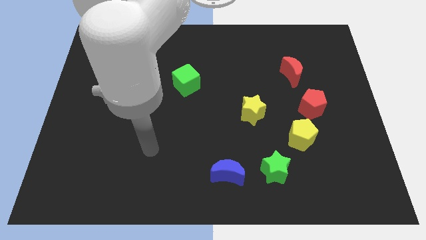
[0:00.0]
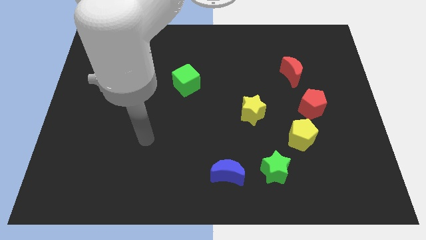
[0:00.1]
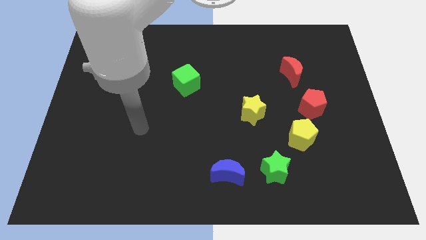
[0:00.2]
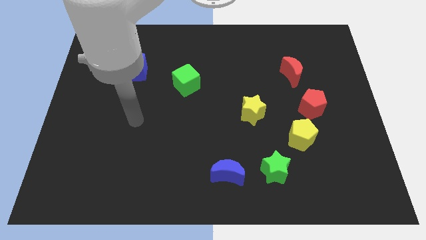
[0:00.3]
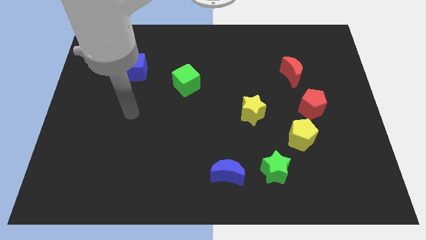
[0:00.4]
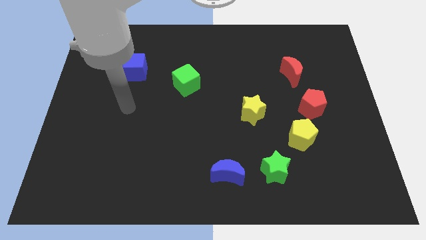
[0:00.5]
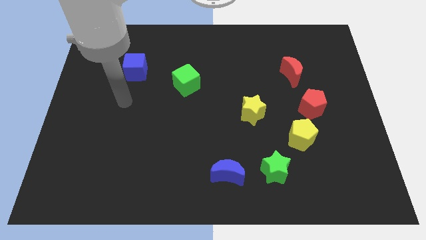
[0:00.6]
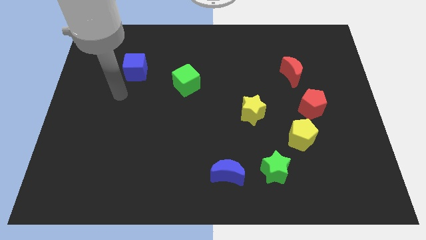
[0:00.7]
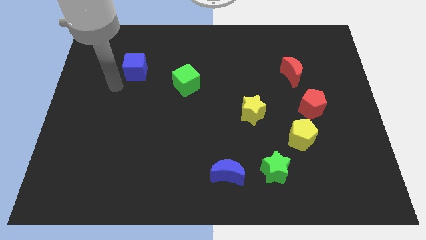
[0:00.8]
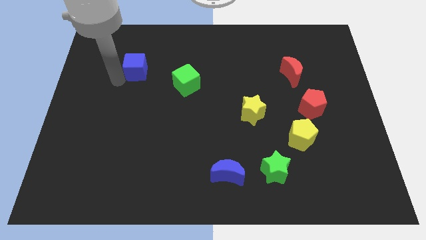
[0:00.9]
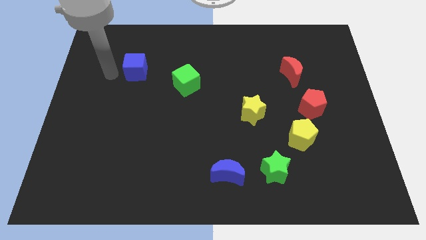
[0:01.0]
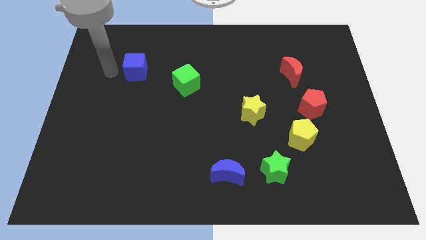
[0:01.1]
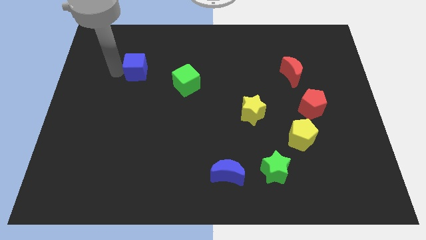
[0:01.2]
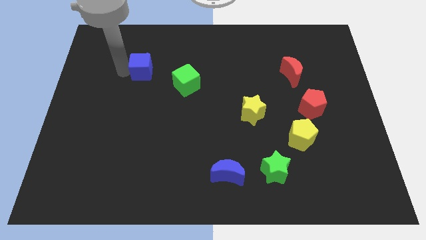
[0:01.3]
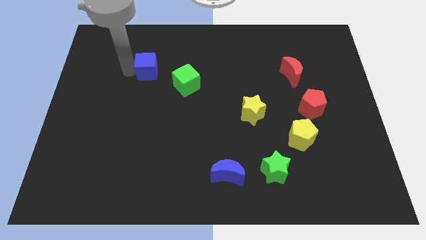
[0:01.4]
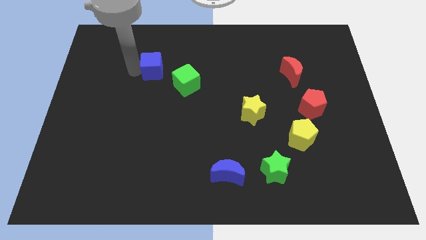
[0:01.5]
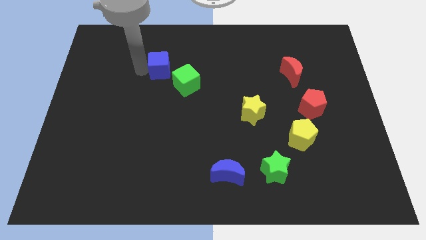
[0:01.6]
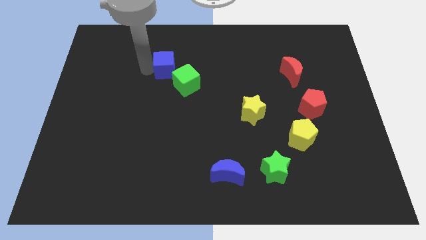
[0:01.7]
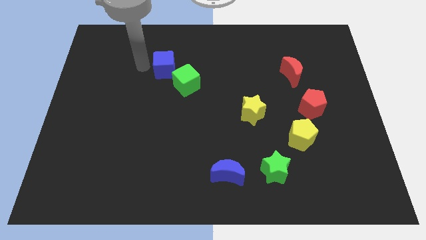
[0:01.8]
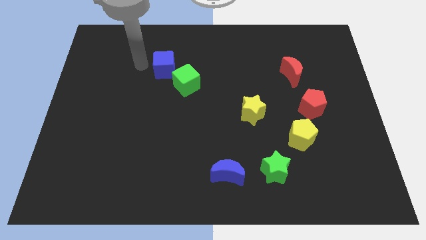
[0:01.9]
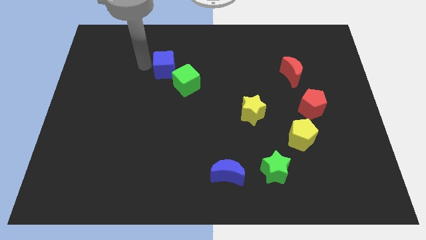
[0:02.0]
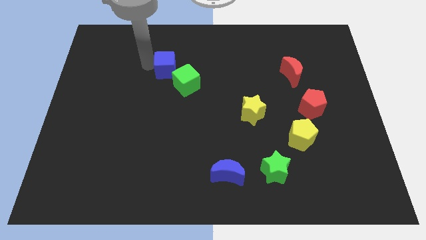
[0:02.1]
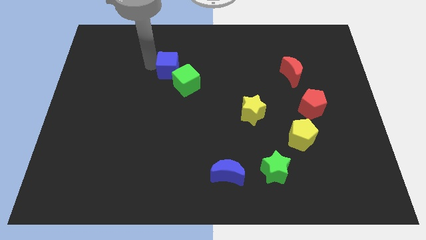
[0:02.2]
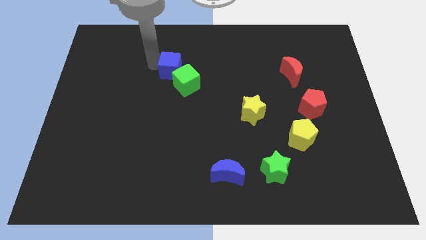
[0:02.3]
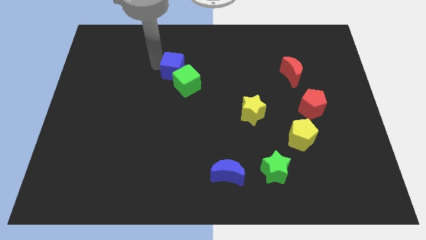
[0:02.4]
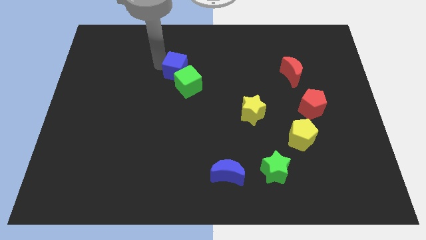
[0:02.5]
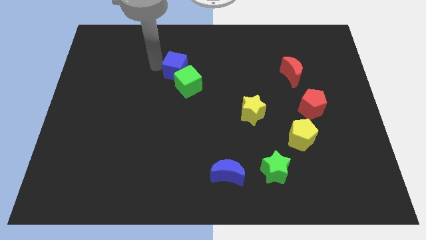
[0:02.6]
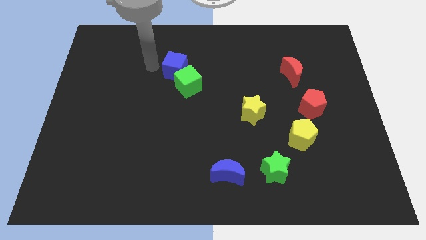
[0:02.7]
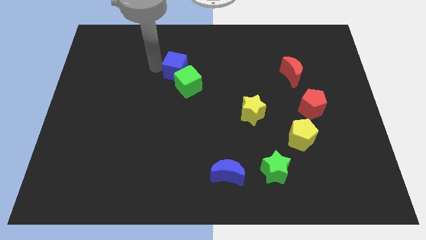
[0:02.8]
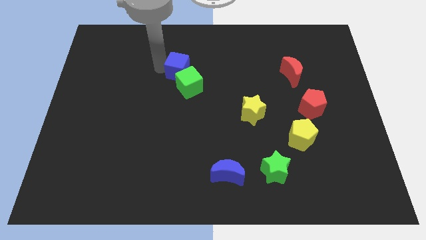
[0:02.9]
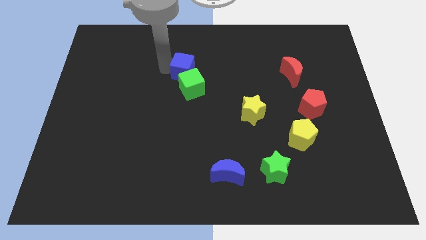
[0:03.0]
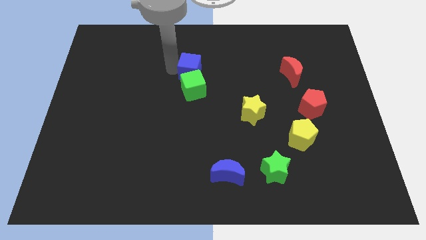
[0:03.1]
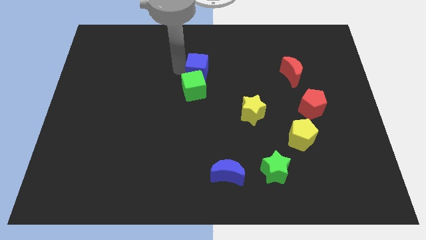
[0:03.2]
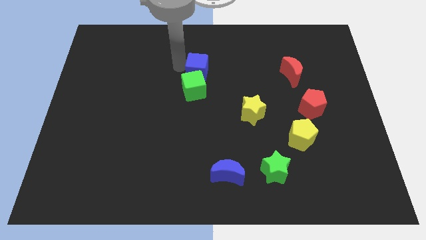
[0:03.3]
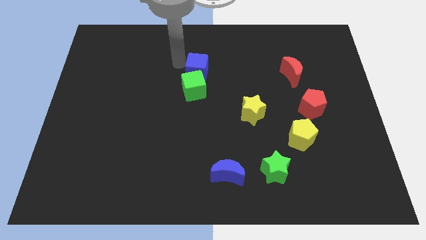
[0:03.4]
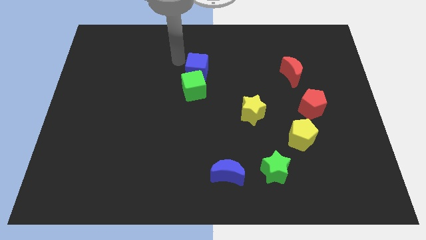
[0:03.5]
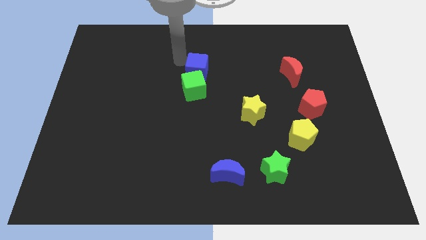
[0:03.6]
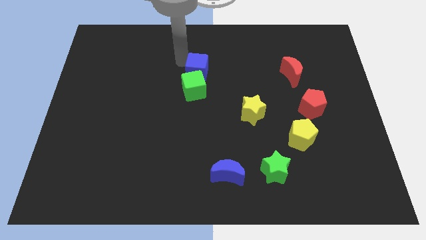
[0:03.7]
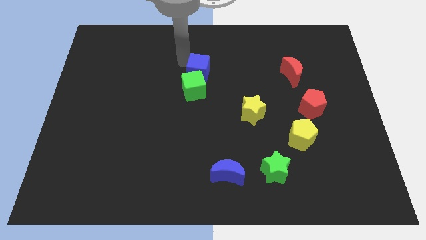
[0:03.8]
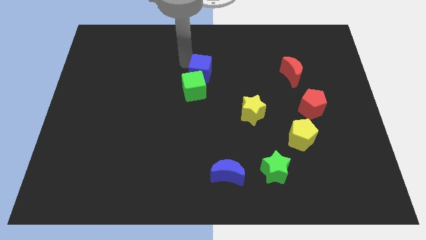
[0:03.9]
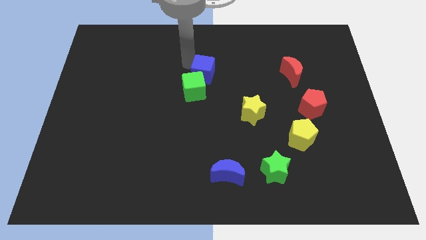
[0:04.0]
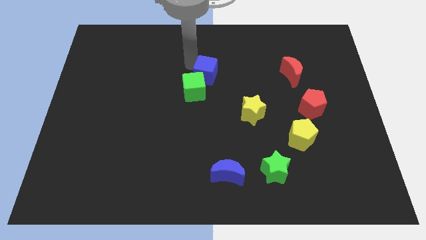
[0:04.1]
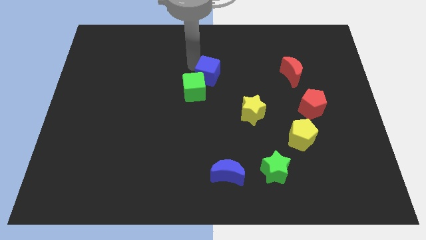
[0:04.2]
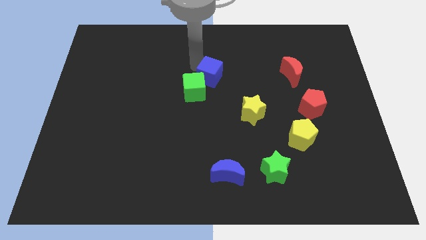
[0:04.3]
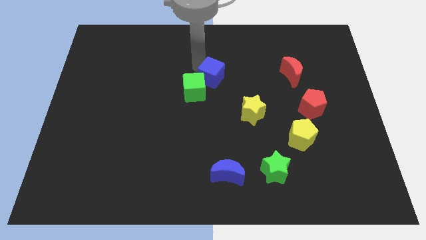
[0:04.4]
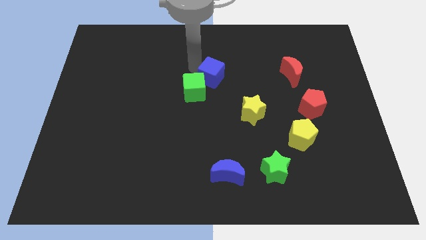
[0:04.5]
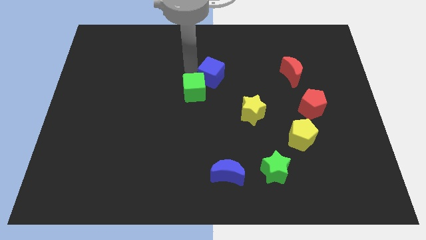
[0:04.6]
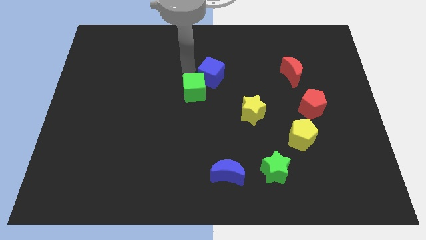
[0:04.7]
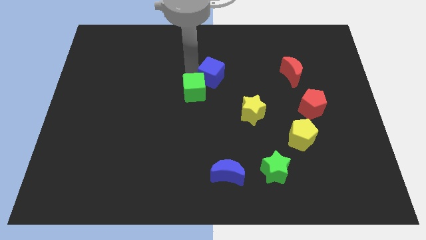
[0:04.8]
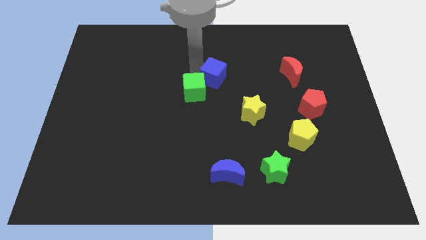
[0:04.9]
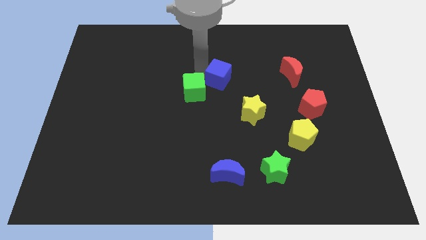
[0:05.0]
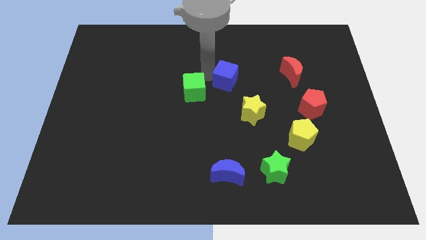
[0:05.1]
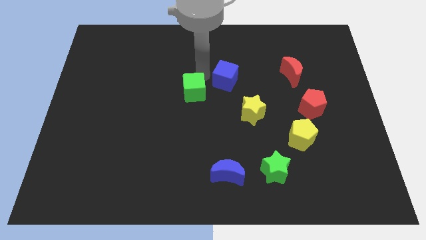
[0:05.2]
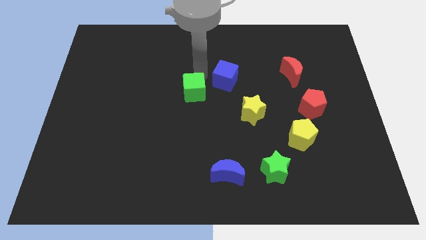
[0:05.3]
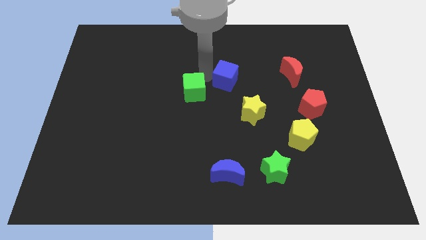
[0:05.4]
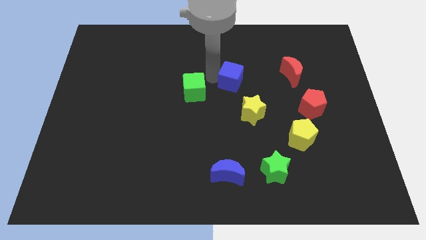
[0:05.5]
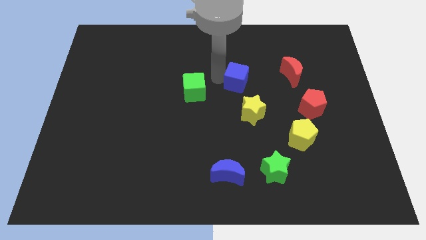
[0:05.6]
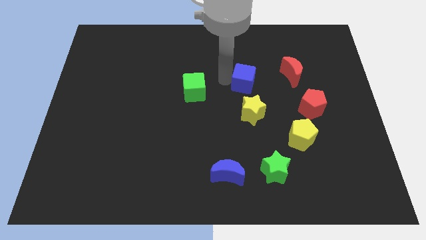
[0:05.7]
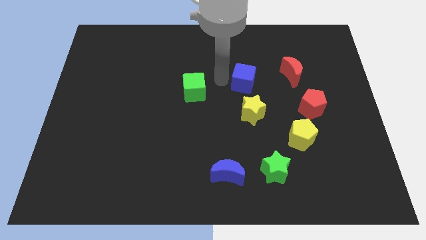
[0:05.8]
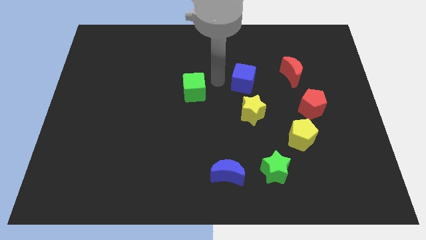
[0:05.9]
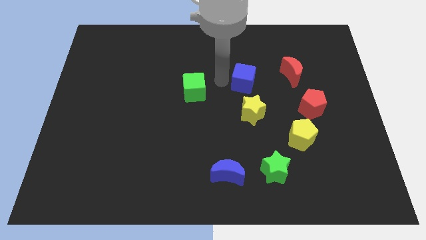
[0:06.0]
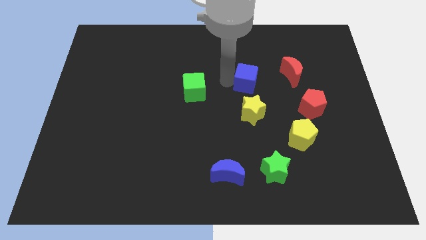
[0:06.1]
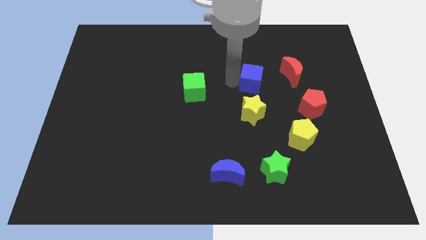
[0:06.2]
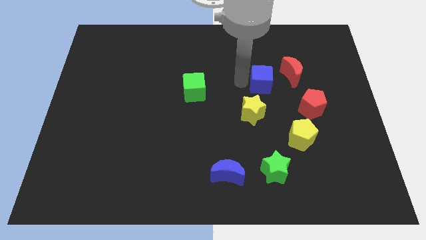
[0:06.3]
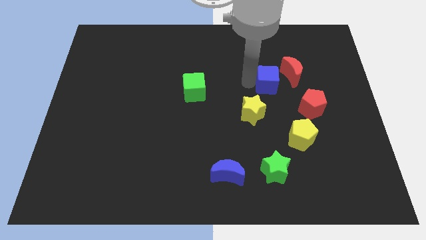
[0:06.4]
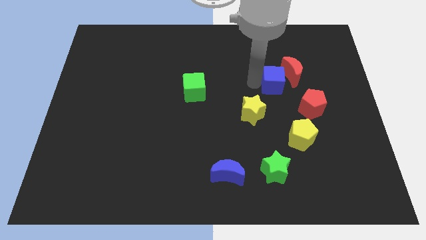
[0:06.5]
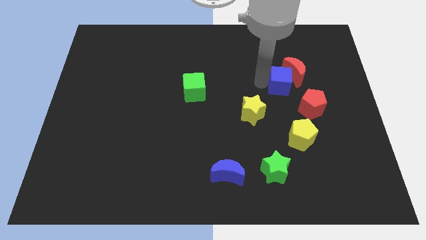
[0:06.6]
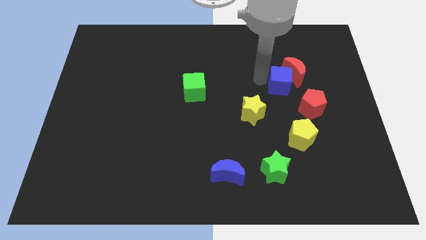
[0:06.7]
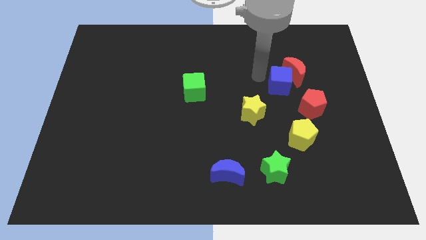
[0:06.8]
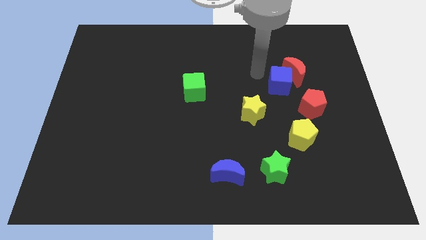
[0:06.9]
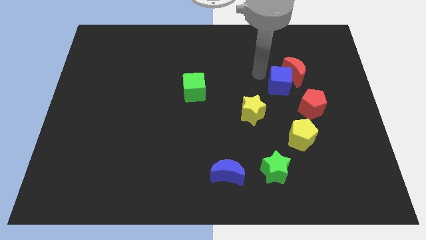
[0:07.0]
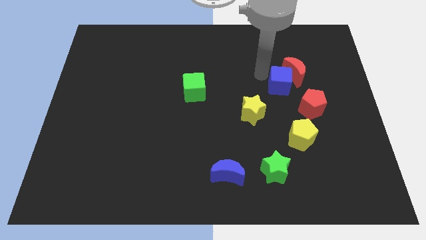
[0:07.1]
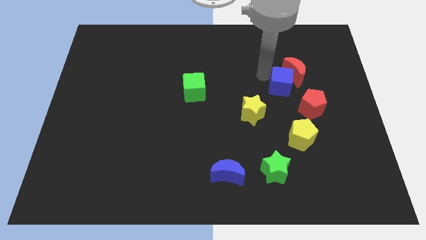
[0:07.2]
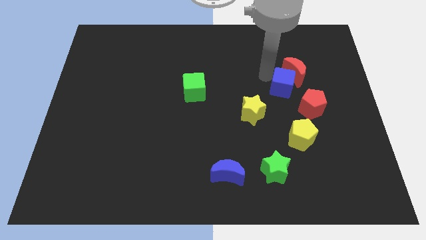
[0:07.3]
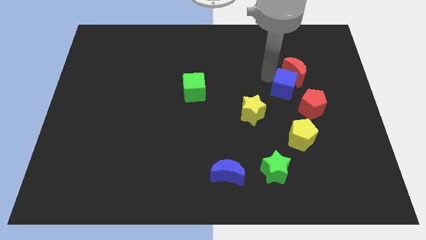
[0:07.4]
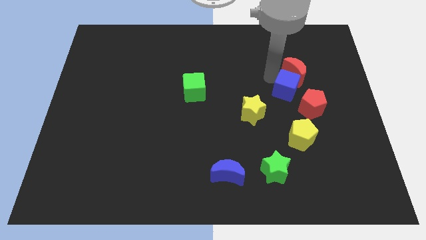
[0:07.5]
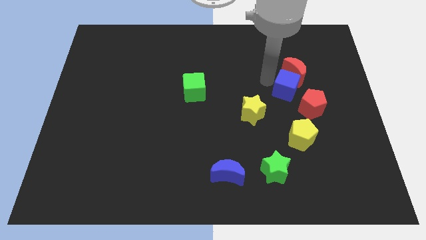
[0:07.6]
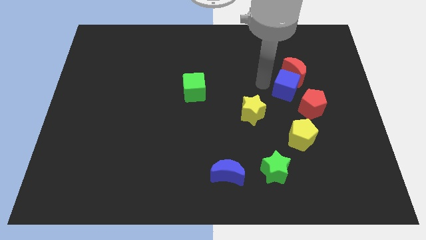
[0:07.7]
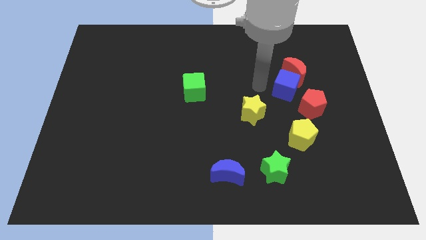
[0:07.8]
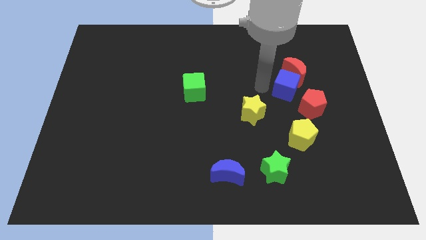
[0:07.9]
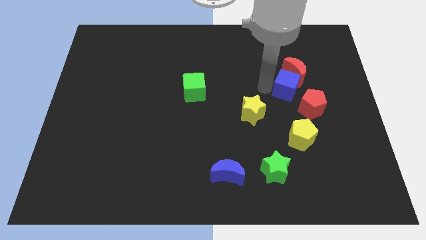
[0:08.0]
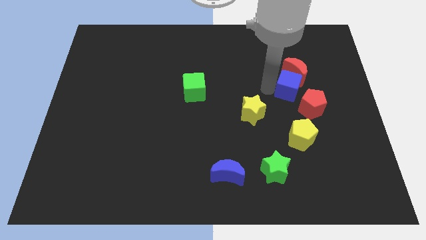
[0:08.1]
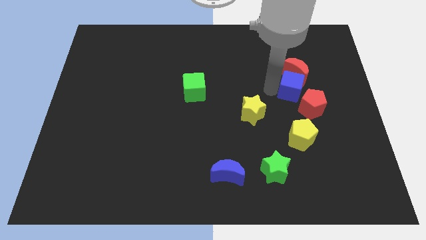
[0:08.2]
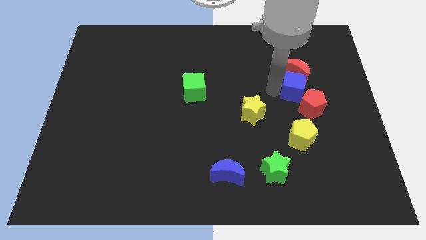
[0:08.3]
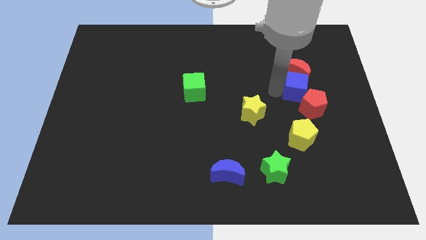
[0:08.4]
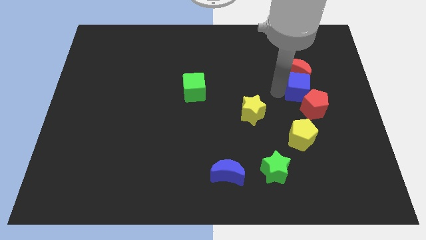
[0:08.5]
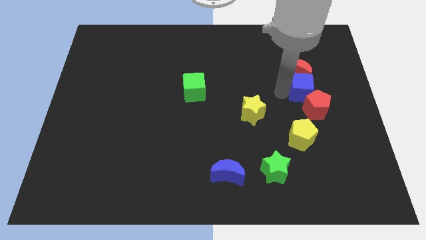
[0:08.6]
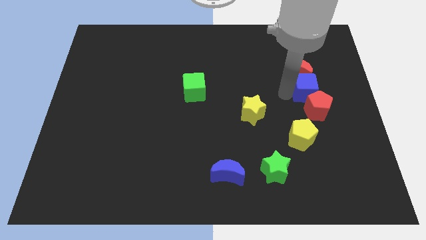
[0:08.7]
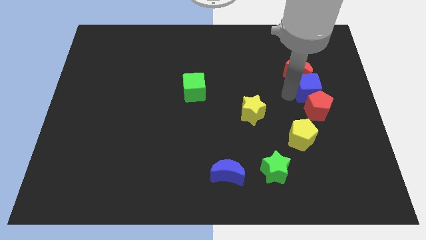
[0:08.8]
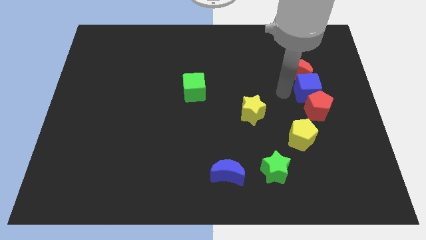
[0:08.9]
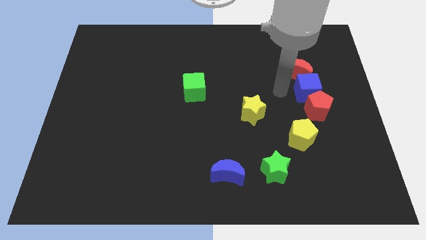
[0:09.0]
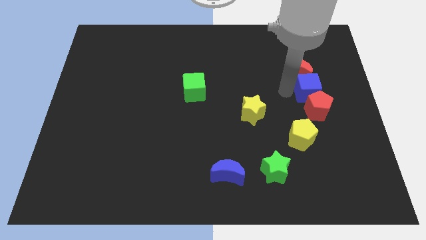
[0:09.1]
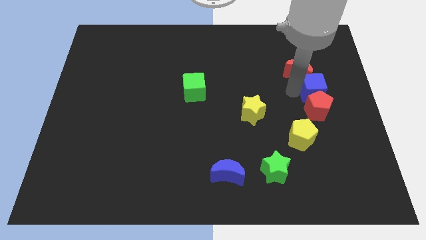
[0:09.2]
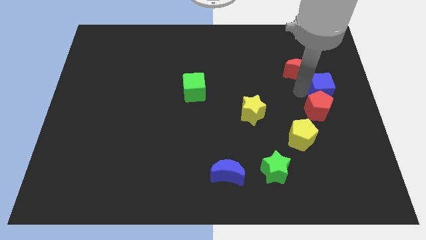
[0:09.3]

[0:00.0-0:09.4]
put the blue cube to the right side of the board
